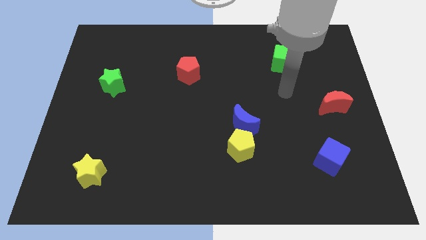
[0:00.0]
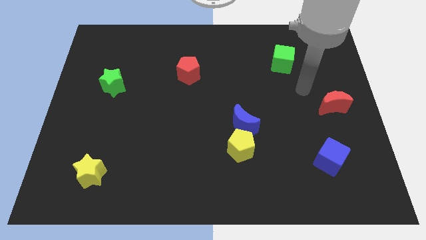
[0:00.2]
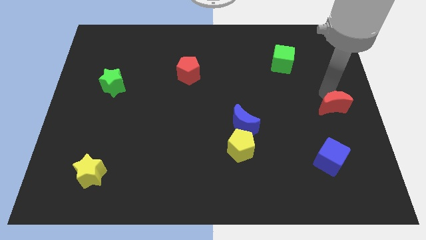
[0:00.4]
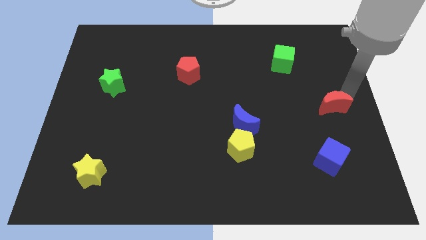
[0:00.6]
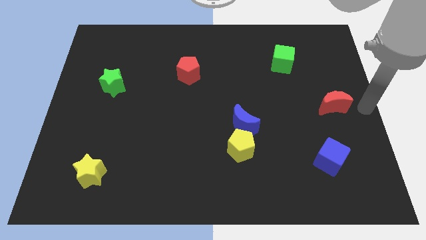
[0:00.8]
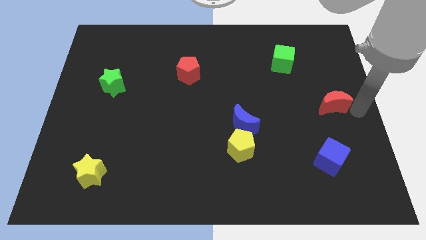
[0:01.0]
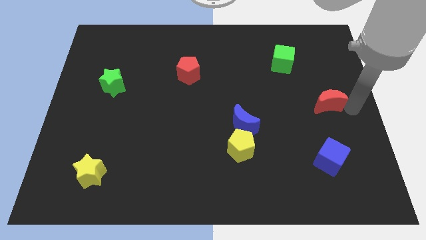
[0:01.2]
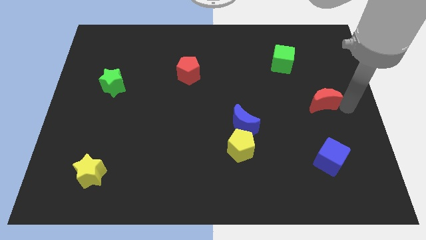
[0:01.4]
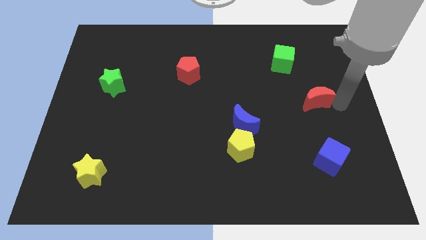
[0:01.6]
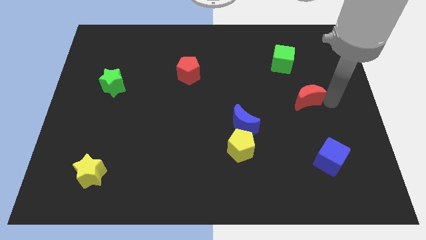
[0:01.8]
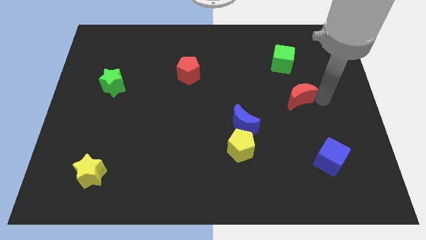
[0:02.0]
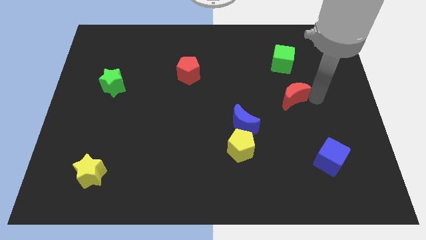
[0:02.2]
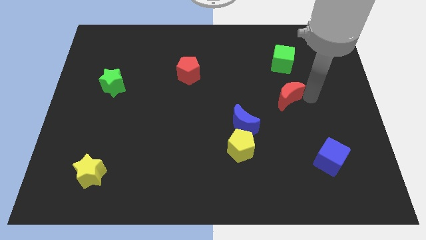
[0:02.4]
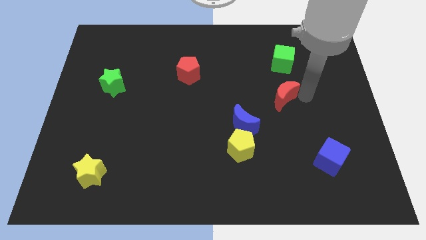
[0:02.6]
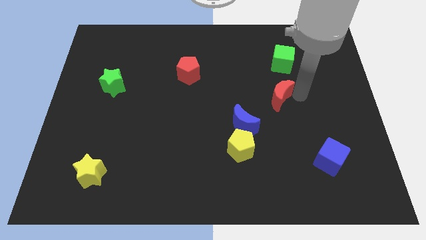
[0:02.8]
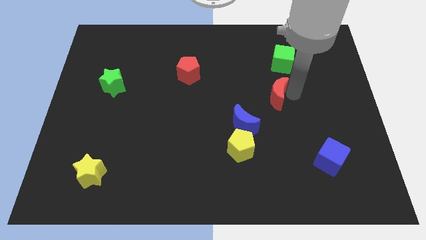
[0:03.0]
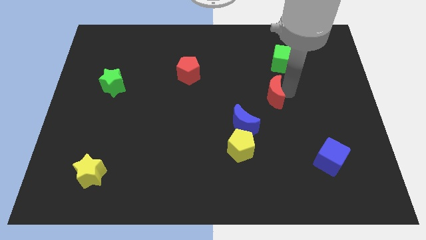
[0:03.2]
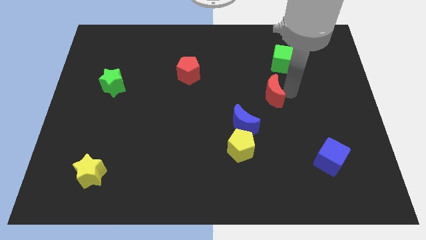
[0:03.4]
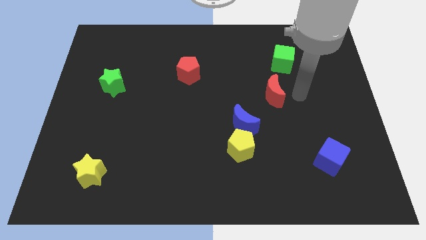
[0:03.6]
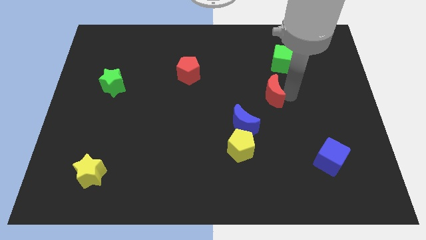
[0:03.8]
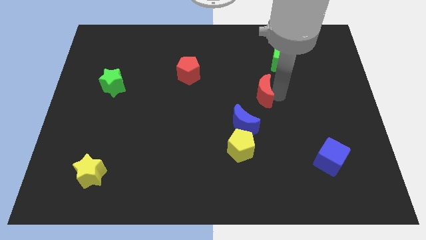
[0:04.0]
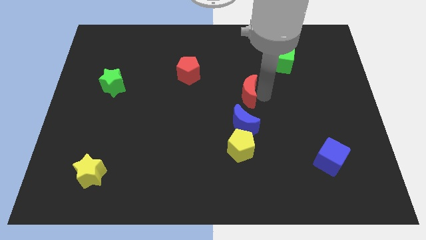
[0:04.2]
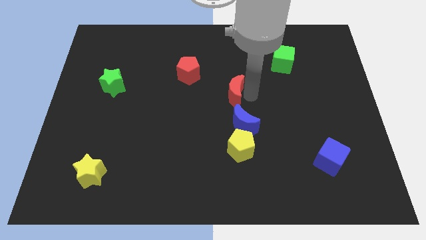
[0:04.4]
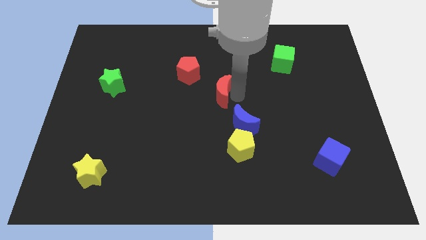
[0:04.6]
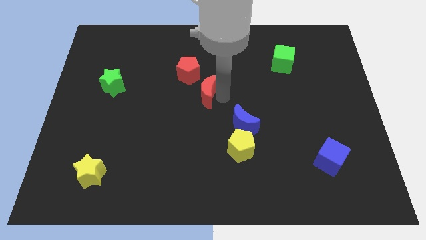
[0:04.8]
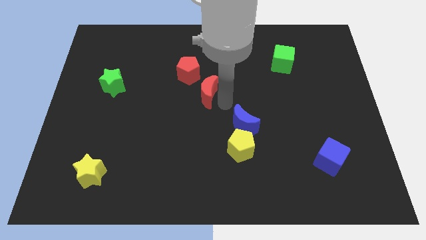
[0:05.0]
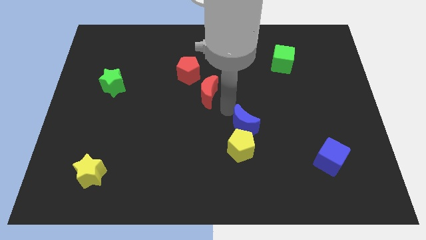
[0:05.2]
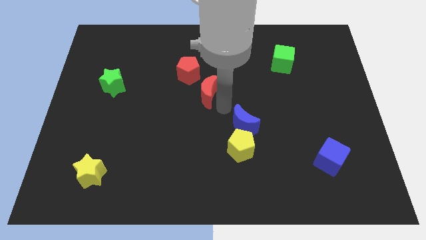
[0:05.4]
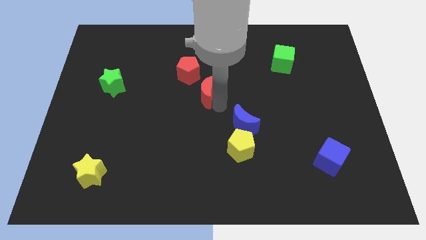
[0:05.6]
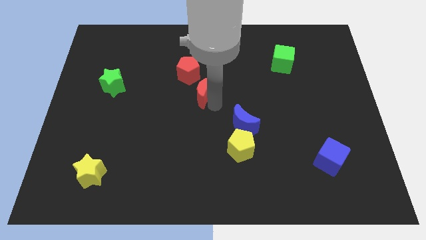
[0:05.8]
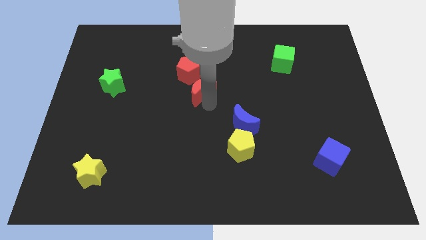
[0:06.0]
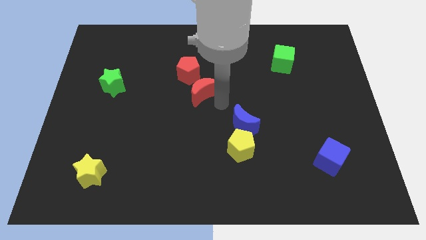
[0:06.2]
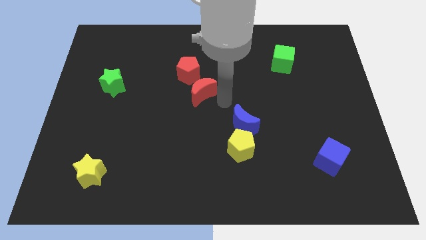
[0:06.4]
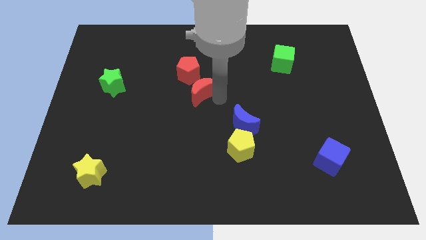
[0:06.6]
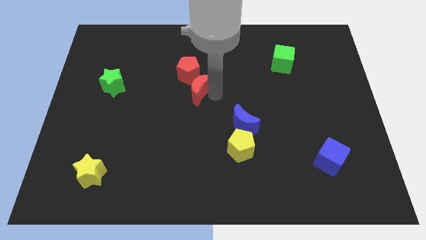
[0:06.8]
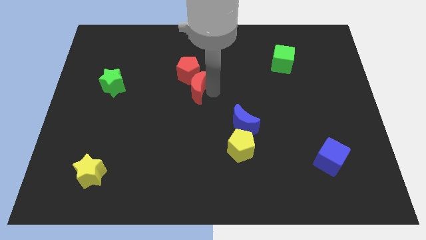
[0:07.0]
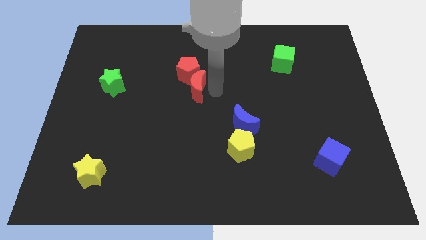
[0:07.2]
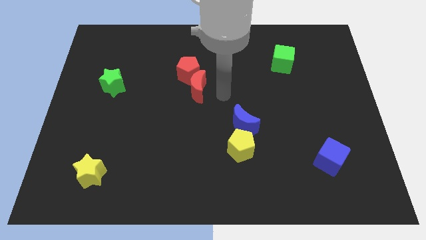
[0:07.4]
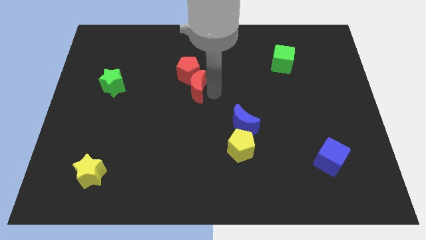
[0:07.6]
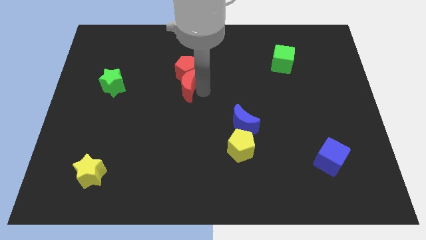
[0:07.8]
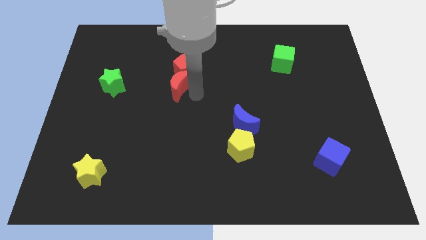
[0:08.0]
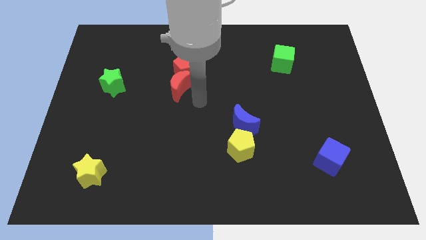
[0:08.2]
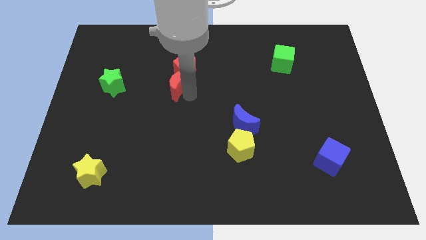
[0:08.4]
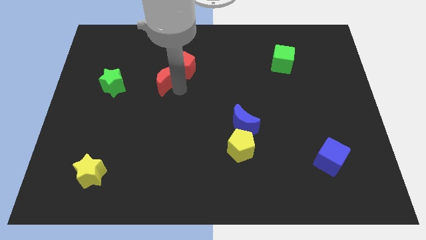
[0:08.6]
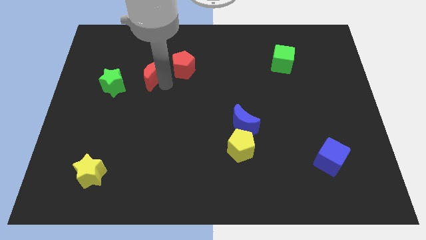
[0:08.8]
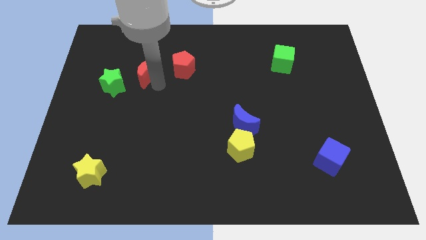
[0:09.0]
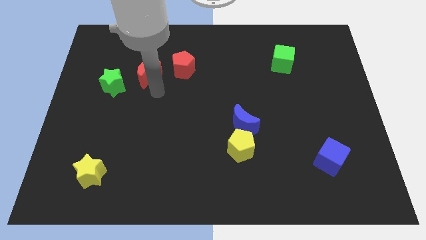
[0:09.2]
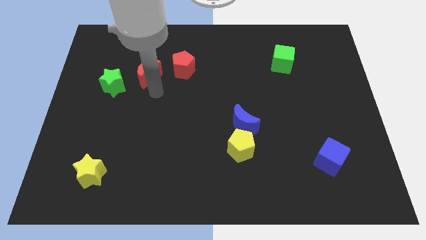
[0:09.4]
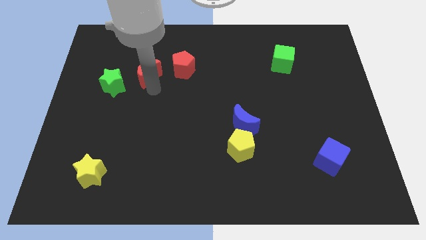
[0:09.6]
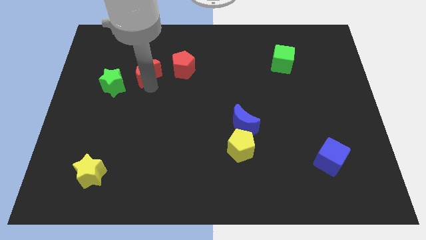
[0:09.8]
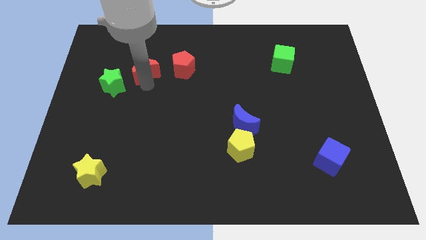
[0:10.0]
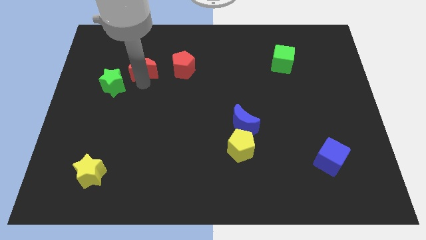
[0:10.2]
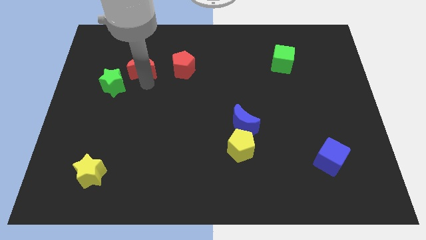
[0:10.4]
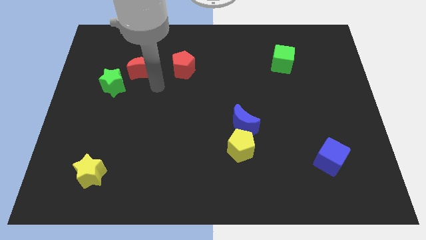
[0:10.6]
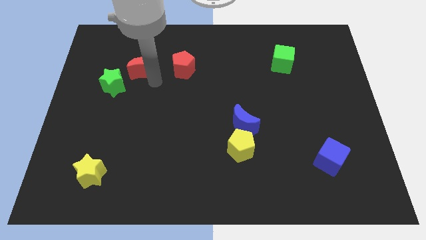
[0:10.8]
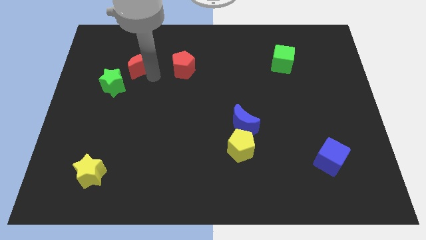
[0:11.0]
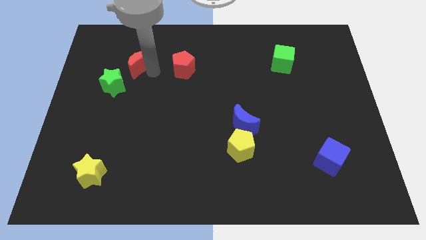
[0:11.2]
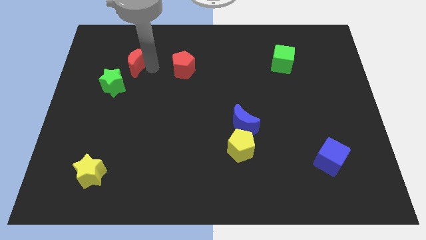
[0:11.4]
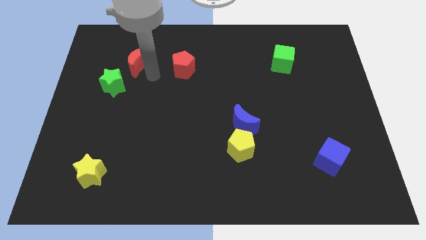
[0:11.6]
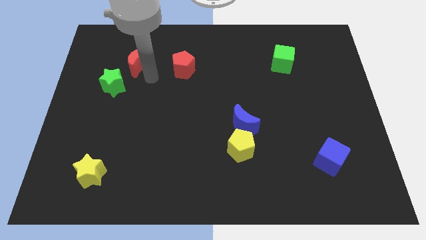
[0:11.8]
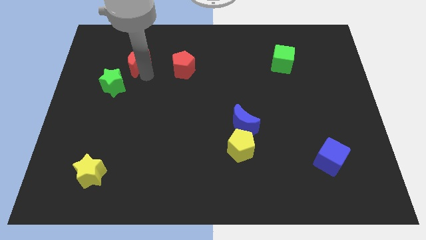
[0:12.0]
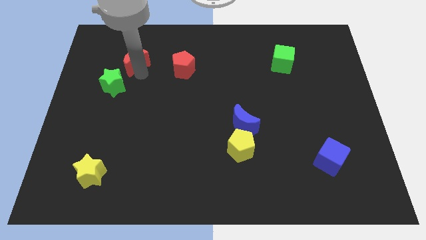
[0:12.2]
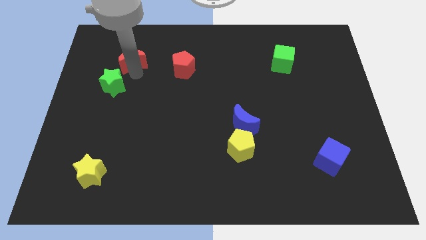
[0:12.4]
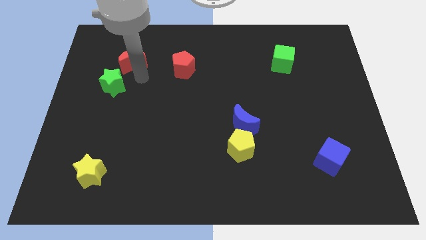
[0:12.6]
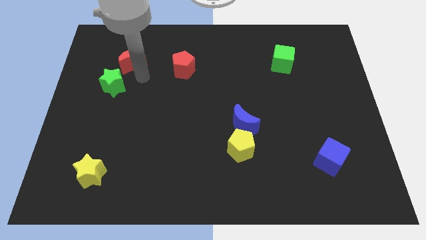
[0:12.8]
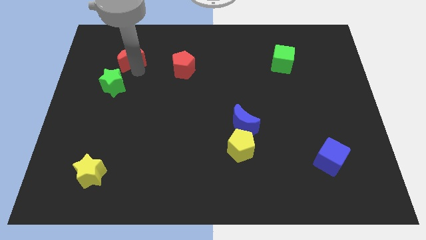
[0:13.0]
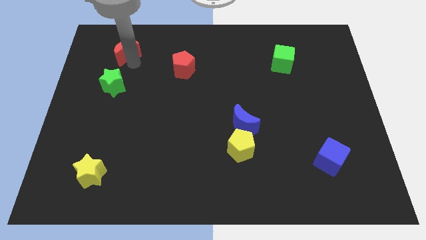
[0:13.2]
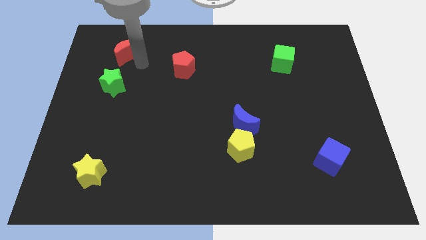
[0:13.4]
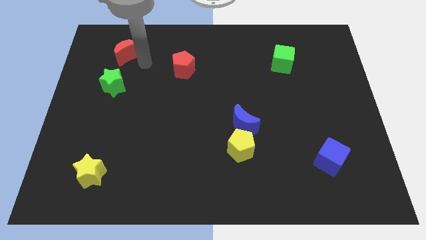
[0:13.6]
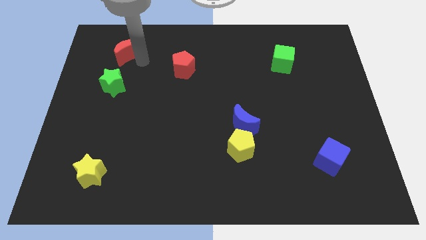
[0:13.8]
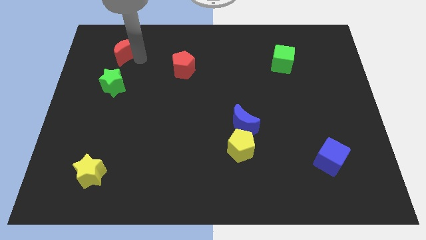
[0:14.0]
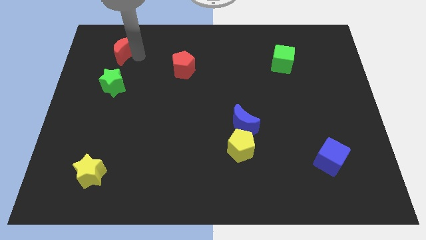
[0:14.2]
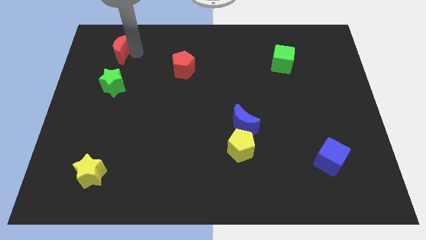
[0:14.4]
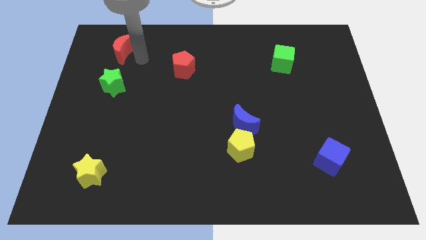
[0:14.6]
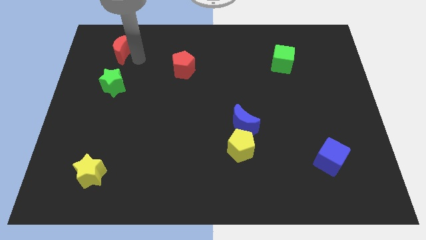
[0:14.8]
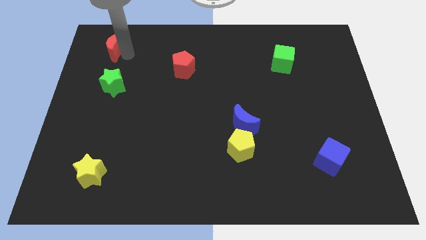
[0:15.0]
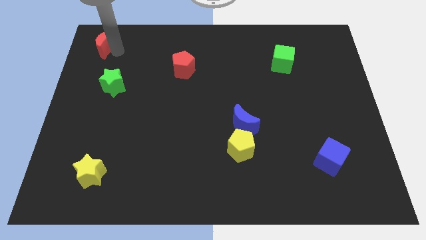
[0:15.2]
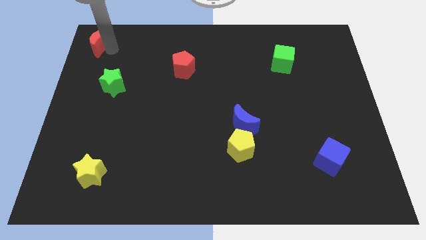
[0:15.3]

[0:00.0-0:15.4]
put the red moon to the top left corner
